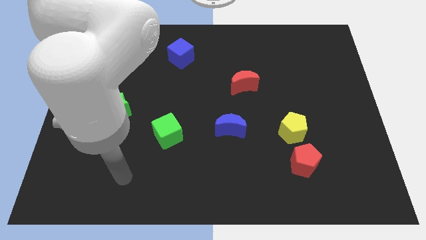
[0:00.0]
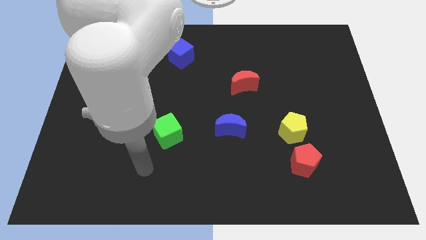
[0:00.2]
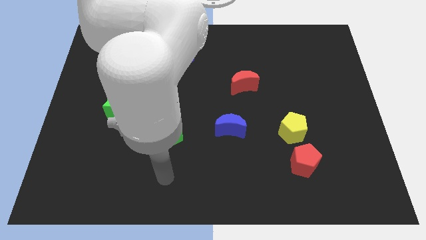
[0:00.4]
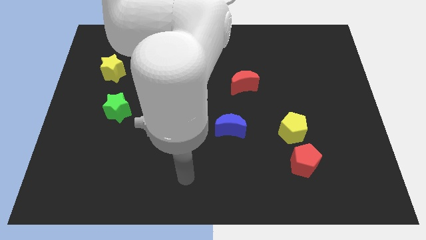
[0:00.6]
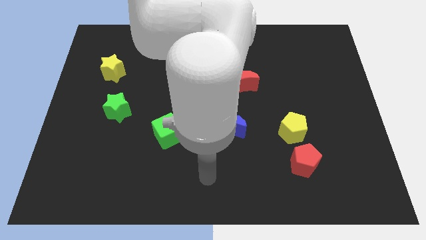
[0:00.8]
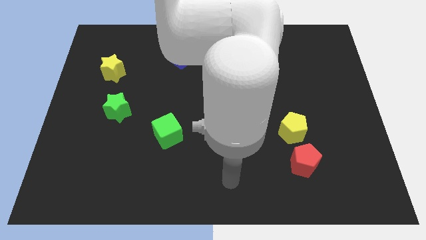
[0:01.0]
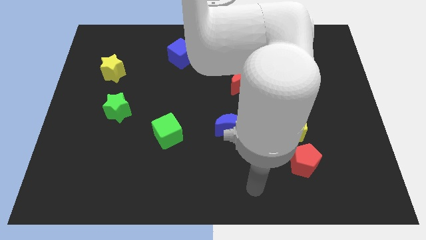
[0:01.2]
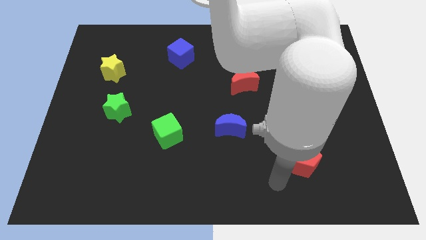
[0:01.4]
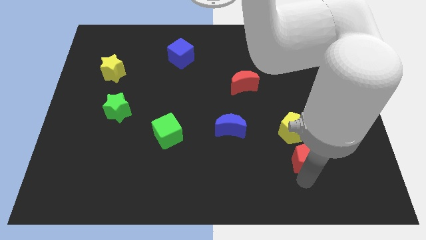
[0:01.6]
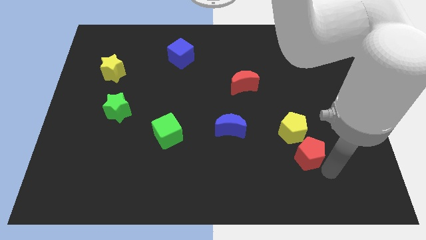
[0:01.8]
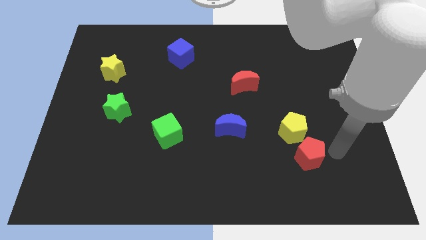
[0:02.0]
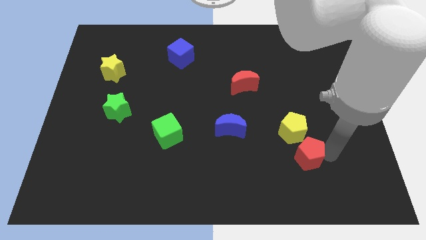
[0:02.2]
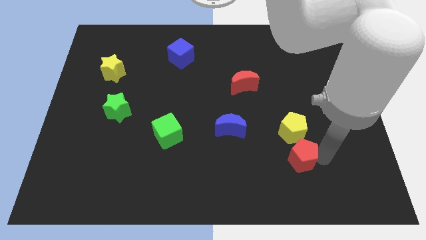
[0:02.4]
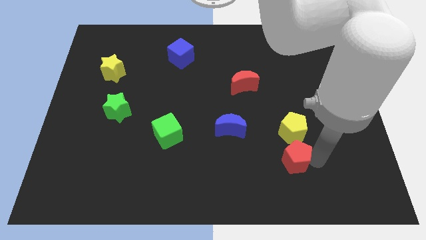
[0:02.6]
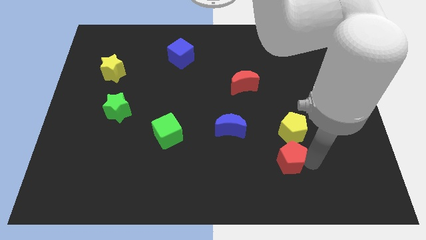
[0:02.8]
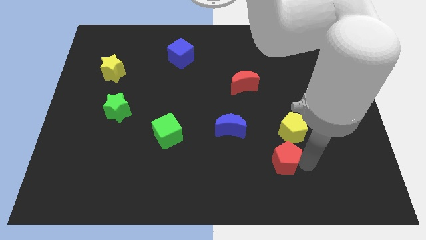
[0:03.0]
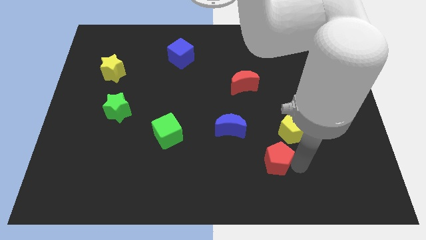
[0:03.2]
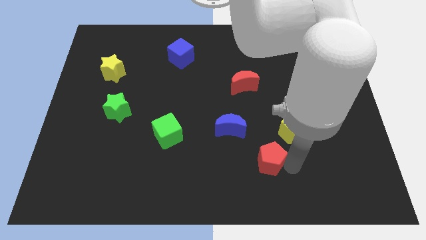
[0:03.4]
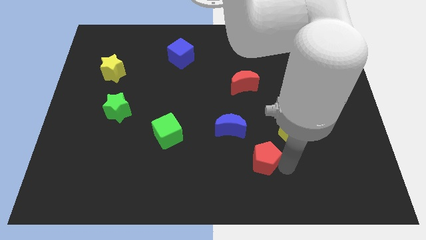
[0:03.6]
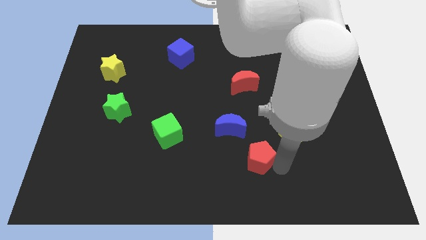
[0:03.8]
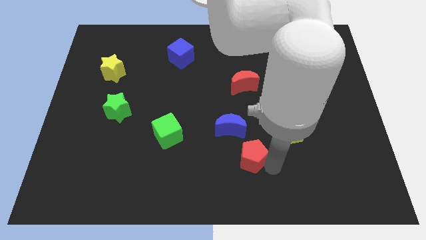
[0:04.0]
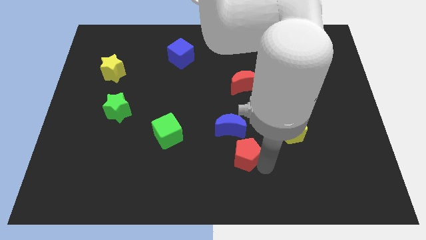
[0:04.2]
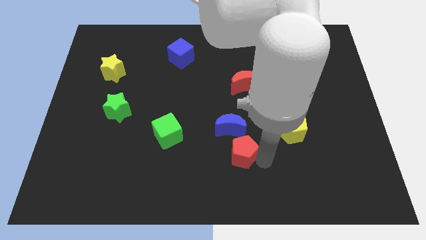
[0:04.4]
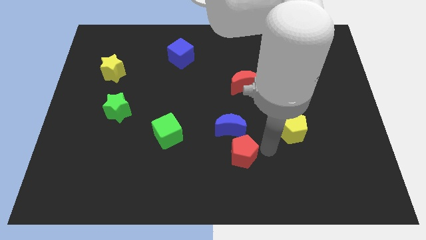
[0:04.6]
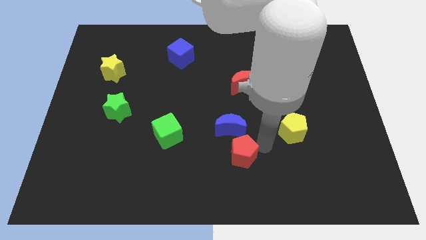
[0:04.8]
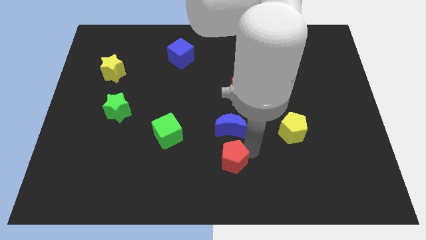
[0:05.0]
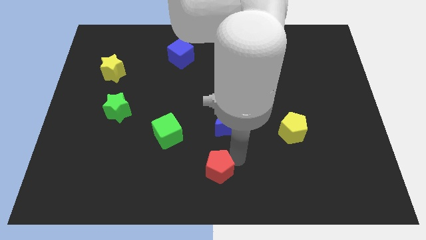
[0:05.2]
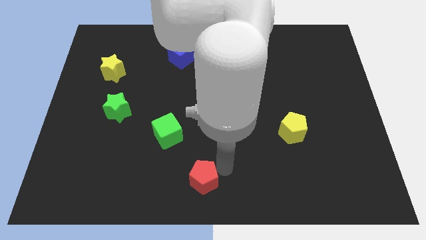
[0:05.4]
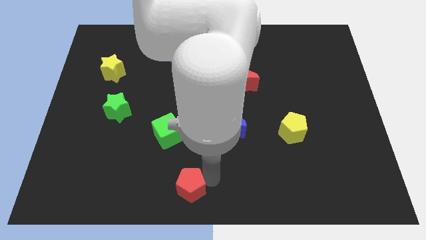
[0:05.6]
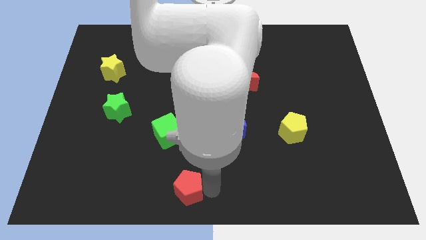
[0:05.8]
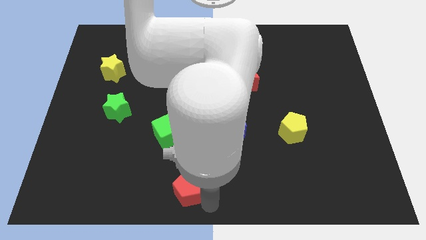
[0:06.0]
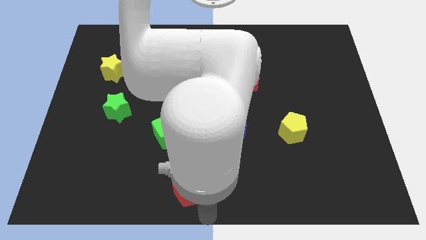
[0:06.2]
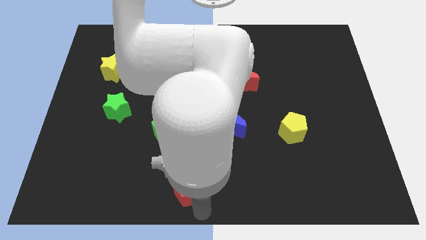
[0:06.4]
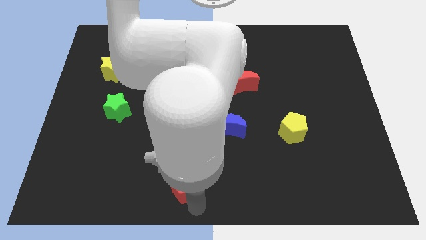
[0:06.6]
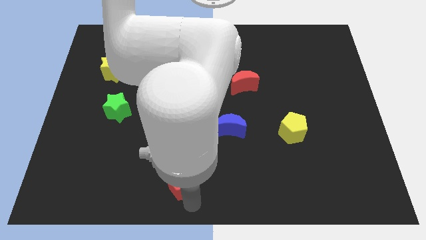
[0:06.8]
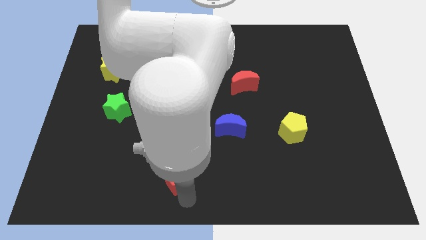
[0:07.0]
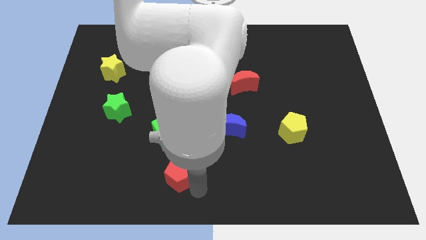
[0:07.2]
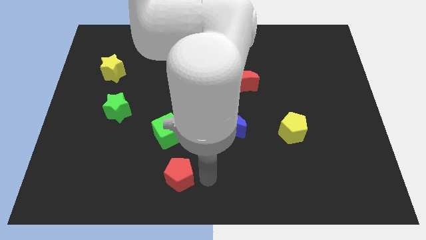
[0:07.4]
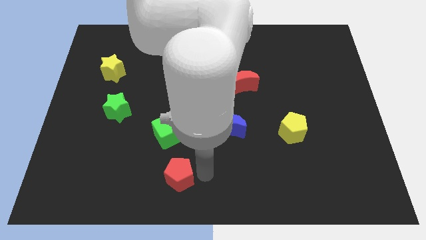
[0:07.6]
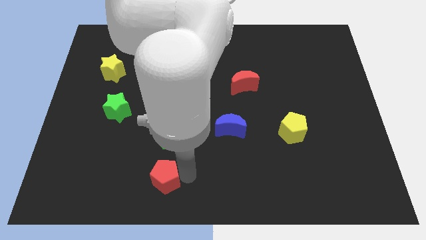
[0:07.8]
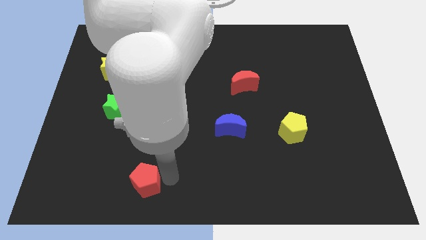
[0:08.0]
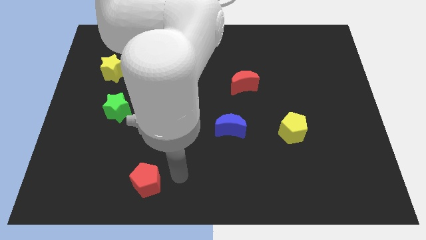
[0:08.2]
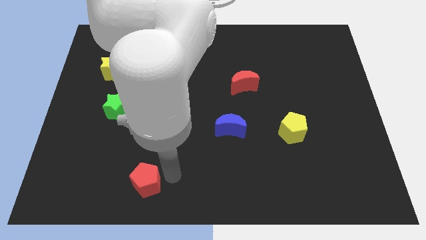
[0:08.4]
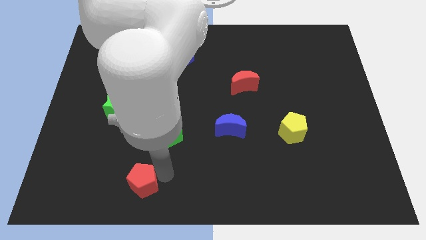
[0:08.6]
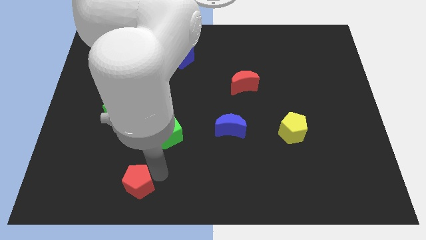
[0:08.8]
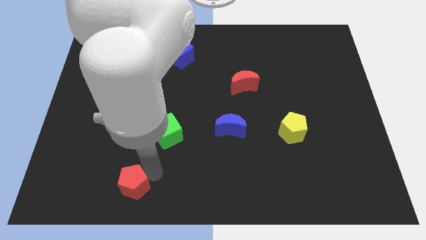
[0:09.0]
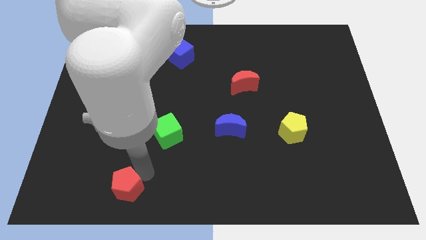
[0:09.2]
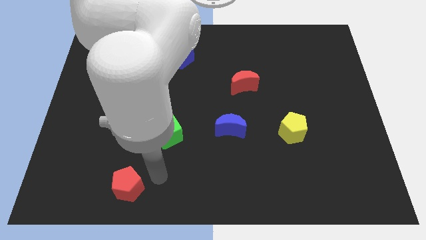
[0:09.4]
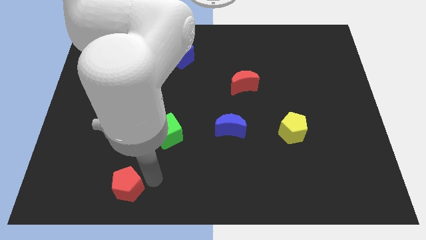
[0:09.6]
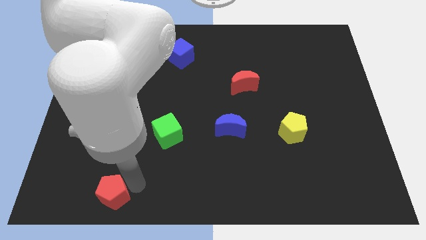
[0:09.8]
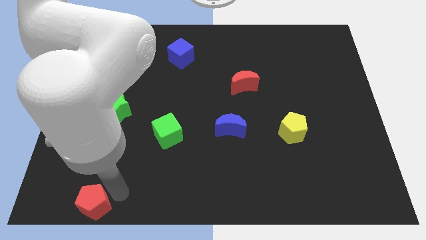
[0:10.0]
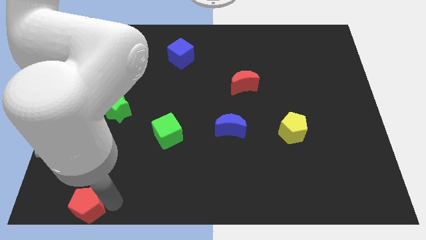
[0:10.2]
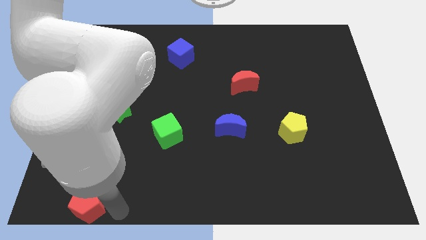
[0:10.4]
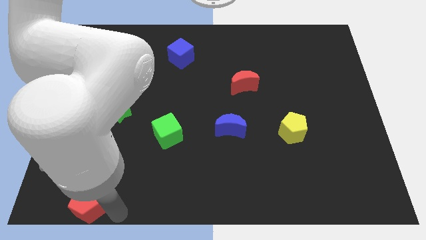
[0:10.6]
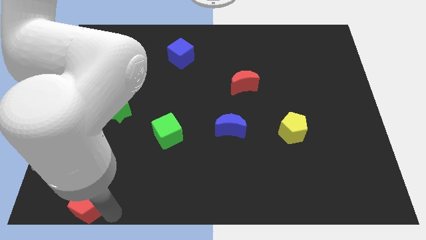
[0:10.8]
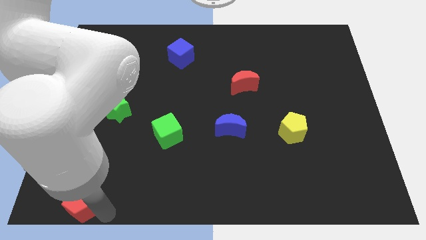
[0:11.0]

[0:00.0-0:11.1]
put the red pentagon to the bottom left corner
